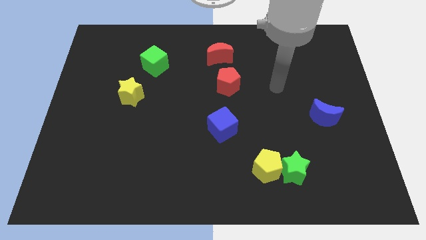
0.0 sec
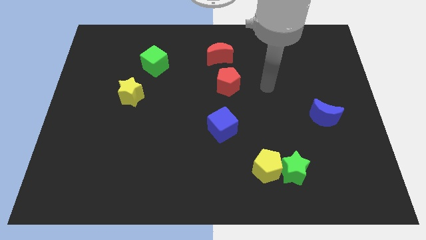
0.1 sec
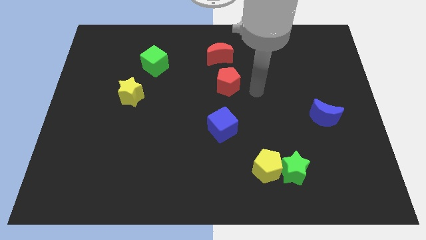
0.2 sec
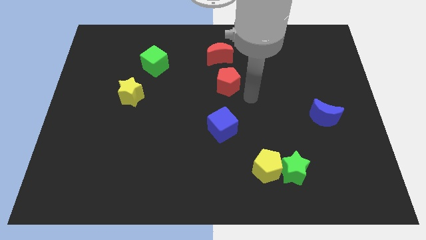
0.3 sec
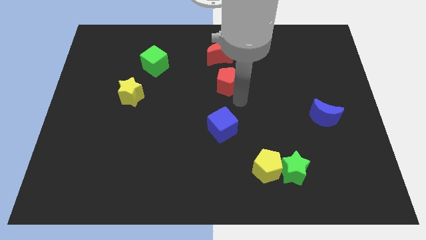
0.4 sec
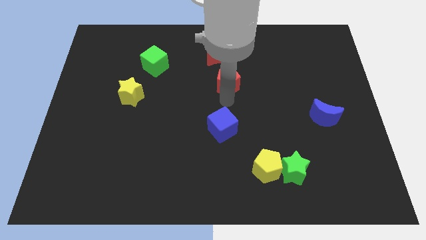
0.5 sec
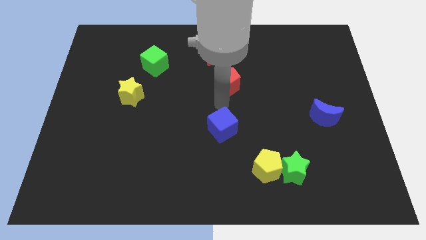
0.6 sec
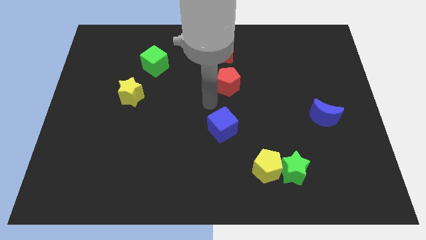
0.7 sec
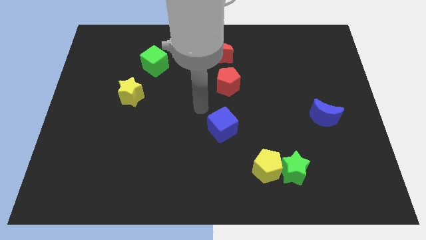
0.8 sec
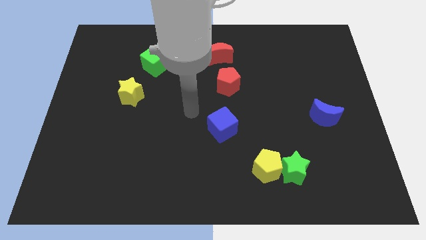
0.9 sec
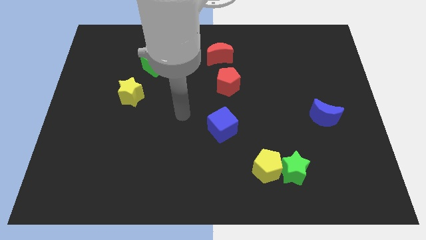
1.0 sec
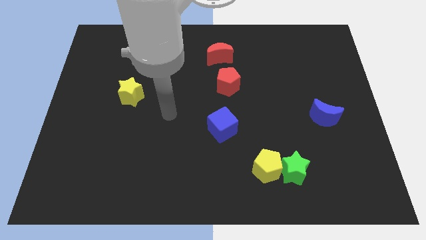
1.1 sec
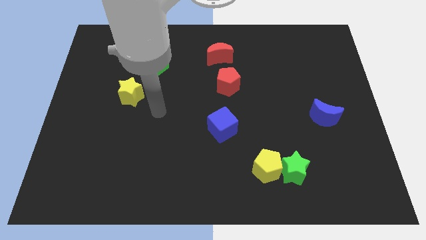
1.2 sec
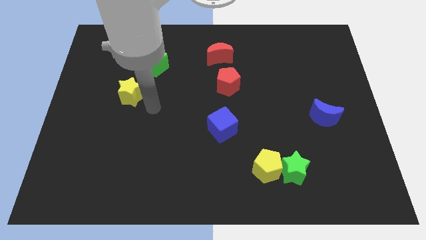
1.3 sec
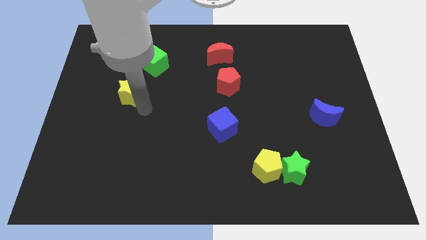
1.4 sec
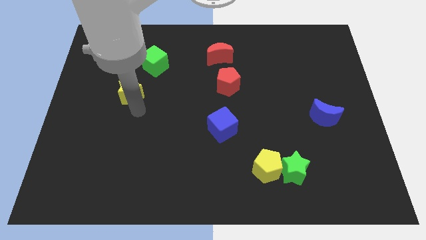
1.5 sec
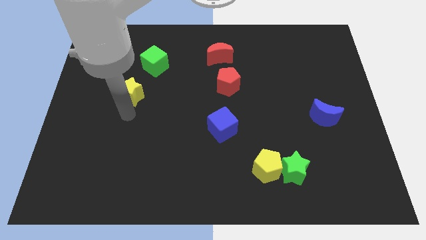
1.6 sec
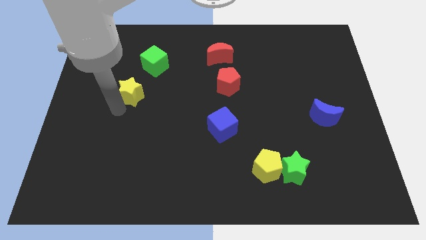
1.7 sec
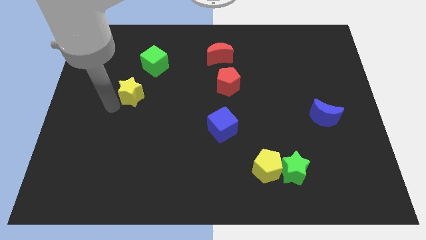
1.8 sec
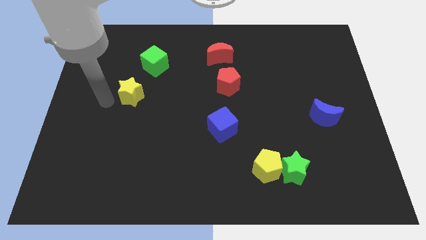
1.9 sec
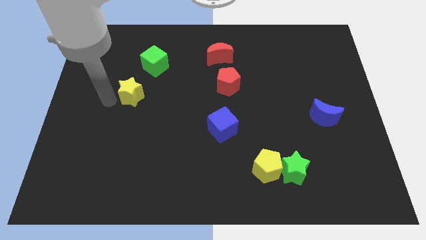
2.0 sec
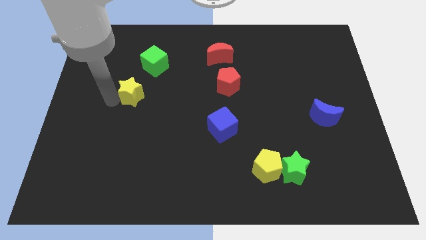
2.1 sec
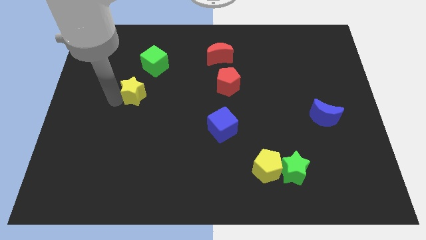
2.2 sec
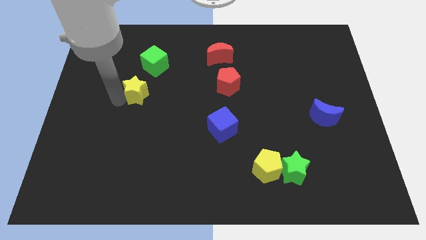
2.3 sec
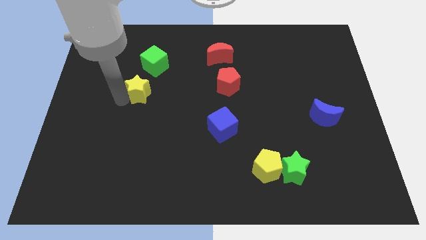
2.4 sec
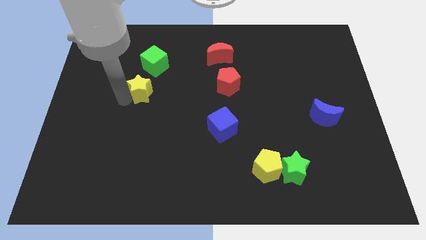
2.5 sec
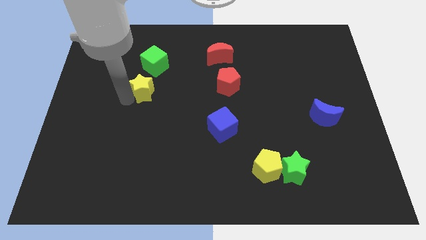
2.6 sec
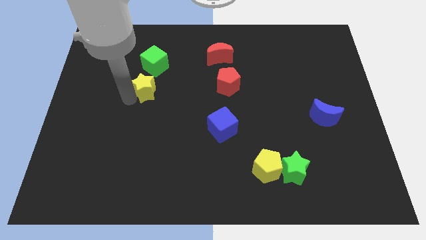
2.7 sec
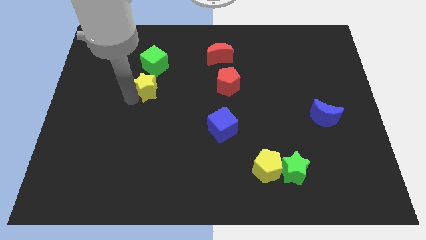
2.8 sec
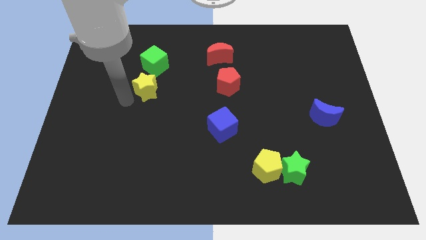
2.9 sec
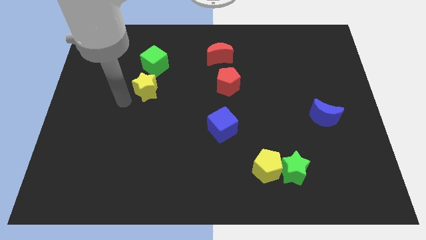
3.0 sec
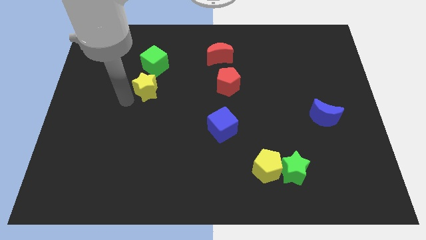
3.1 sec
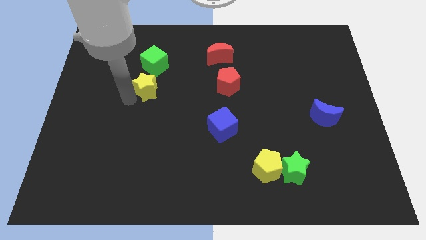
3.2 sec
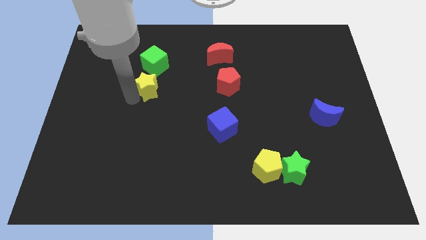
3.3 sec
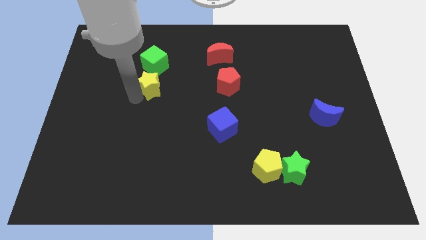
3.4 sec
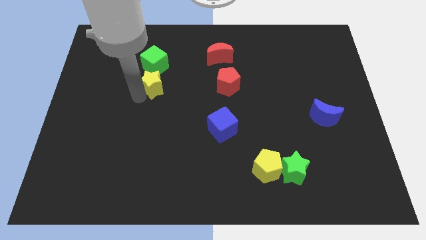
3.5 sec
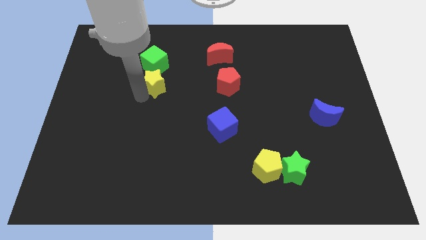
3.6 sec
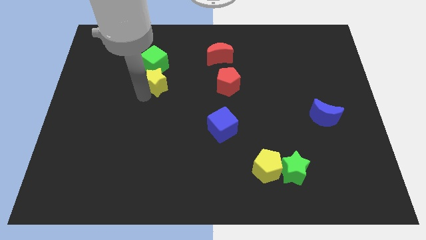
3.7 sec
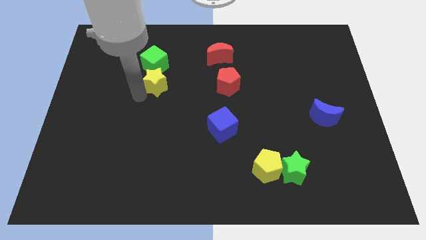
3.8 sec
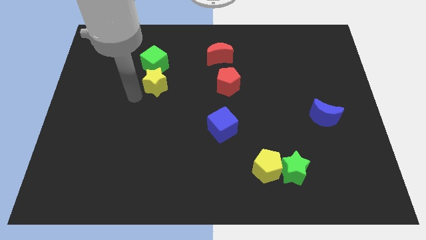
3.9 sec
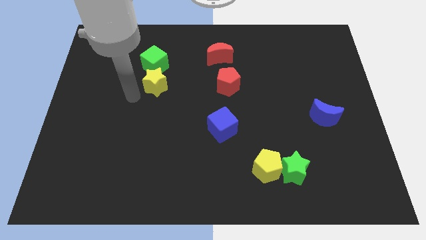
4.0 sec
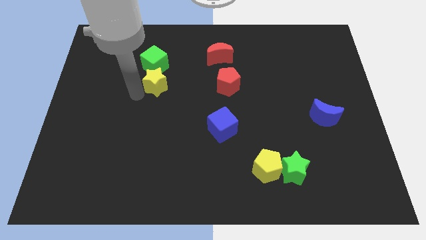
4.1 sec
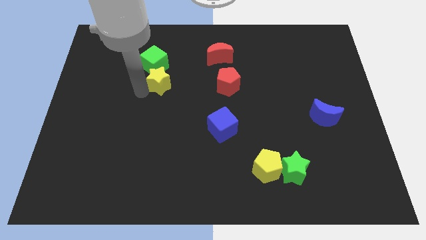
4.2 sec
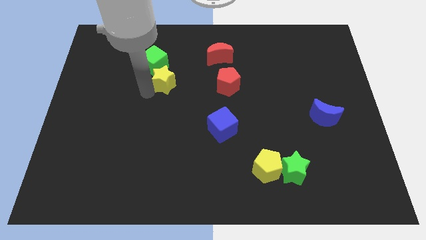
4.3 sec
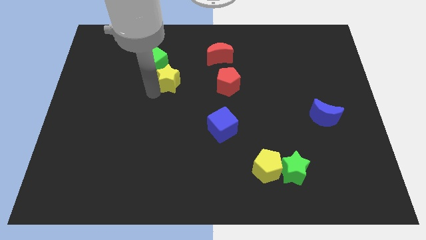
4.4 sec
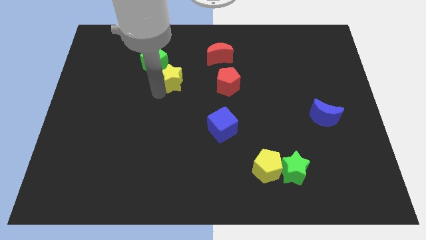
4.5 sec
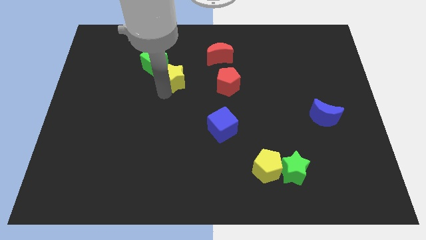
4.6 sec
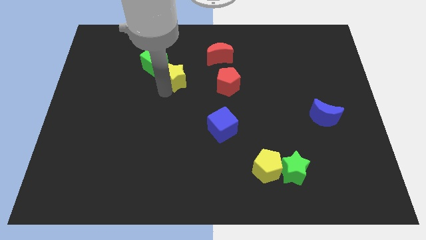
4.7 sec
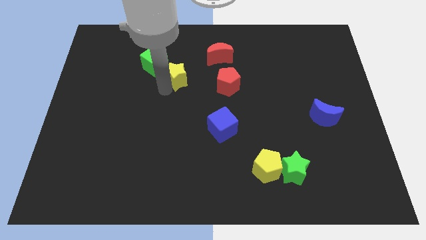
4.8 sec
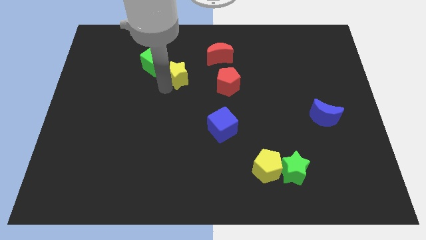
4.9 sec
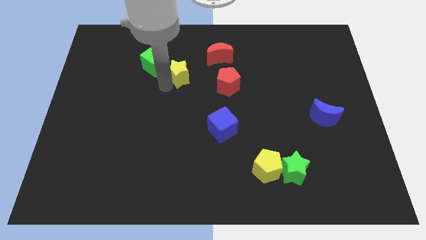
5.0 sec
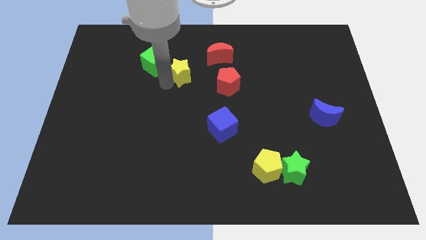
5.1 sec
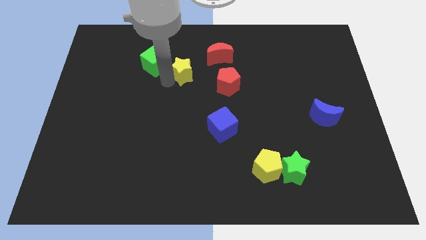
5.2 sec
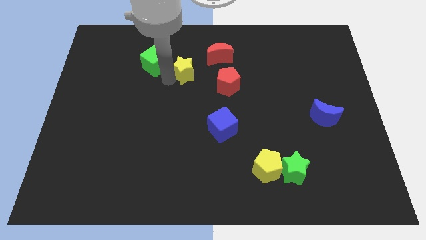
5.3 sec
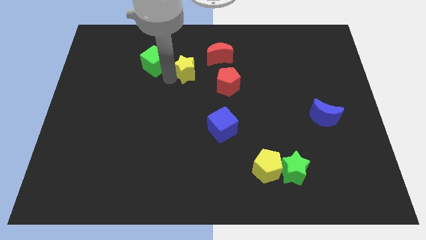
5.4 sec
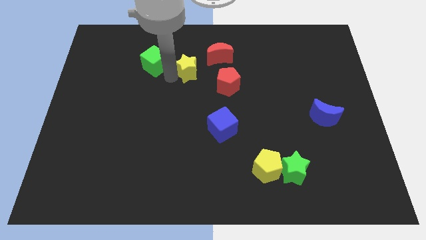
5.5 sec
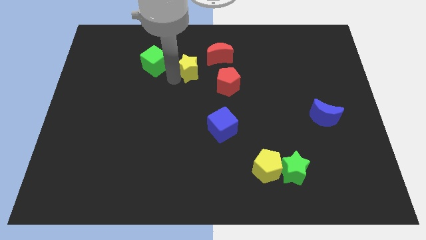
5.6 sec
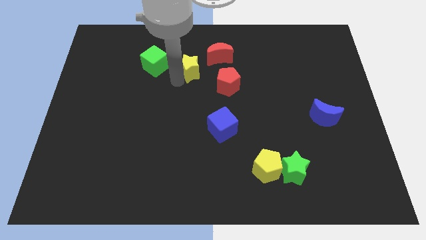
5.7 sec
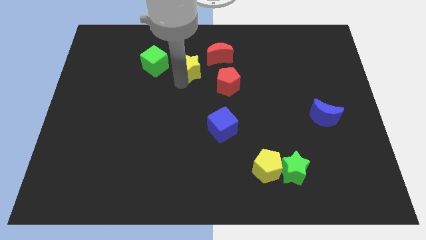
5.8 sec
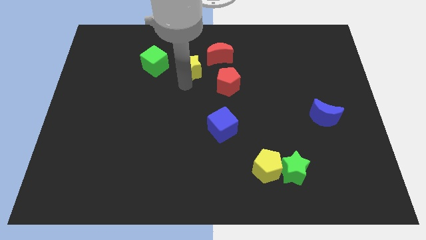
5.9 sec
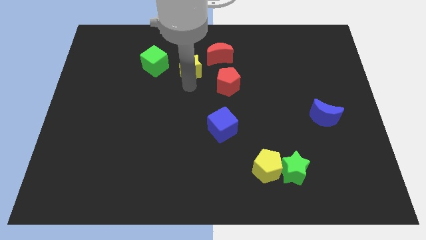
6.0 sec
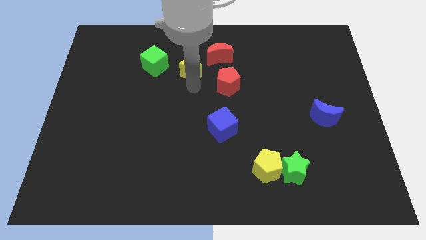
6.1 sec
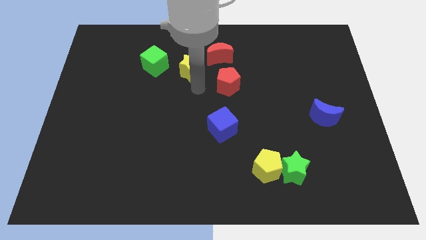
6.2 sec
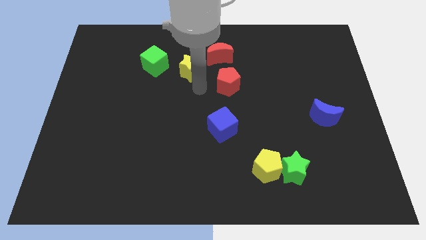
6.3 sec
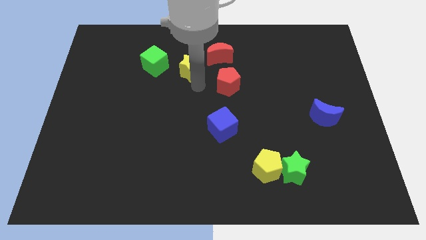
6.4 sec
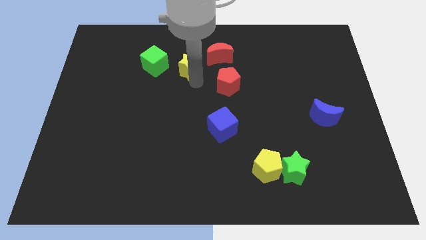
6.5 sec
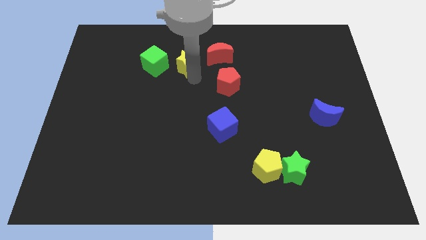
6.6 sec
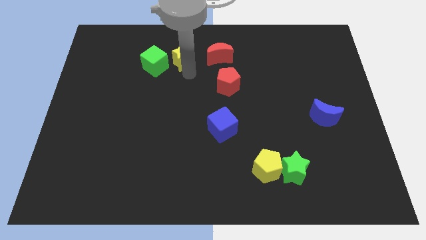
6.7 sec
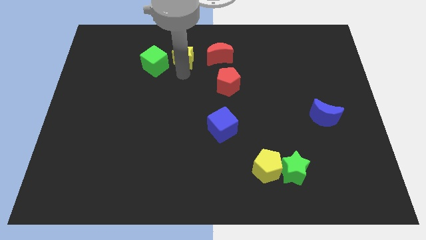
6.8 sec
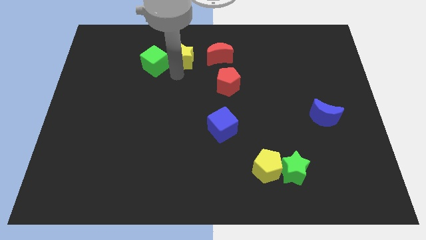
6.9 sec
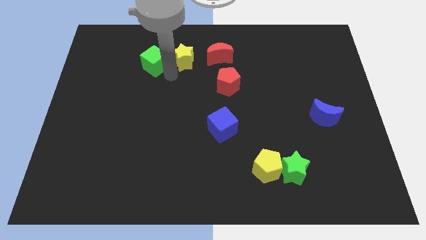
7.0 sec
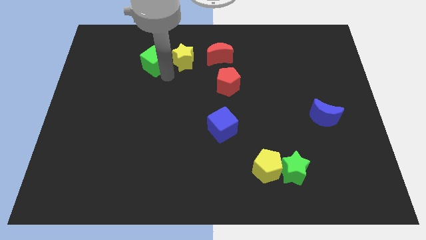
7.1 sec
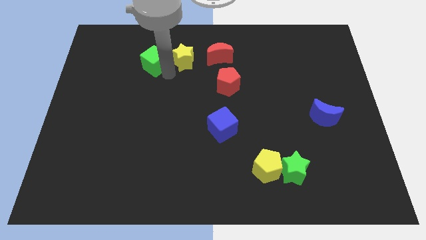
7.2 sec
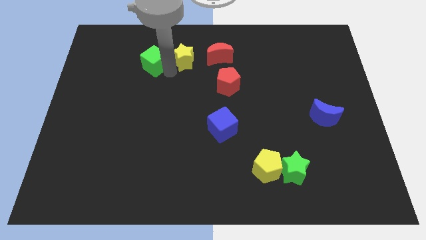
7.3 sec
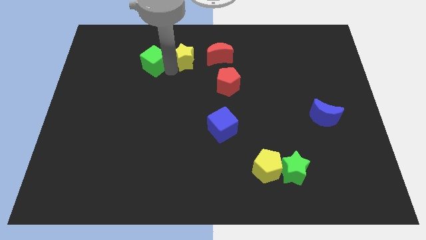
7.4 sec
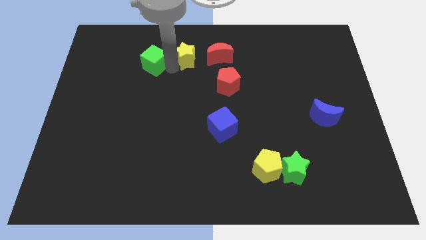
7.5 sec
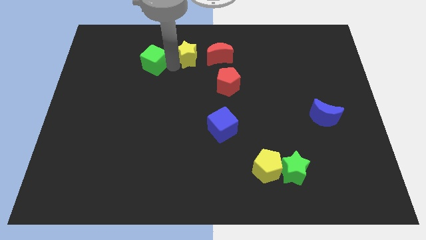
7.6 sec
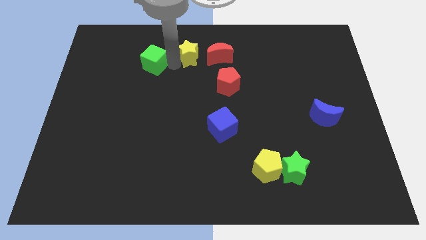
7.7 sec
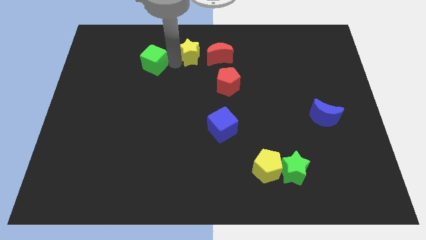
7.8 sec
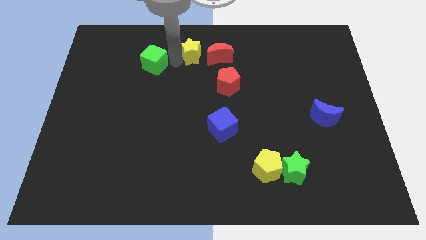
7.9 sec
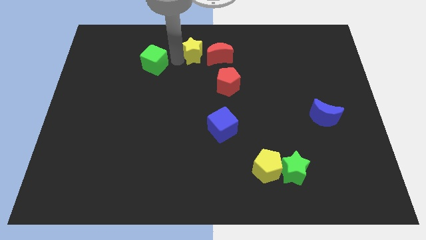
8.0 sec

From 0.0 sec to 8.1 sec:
push the yellow star to the top side
